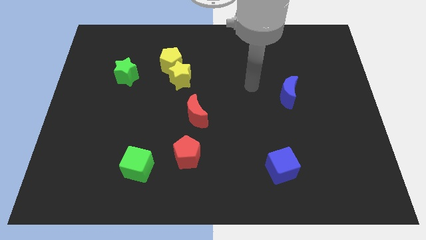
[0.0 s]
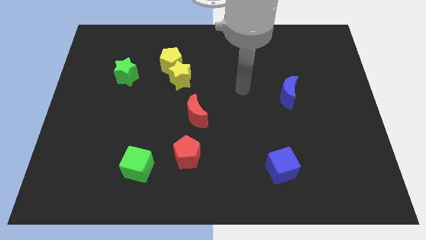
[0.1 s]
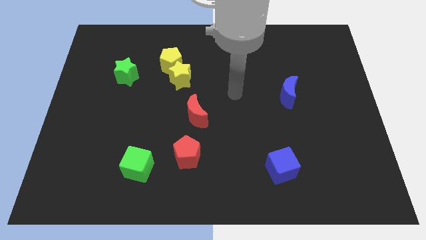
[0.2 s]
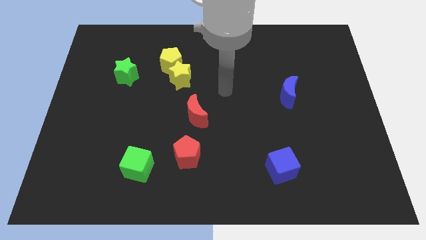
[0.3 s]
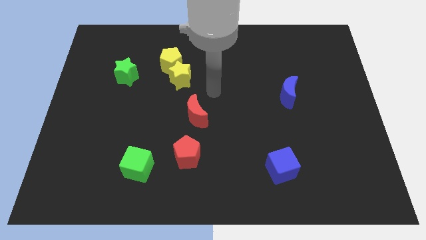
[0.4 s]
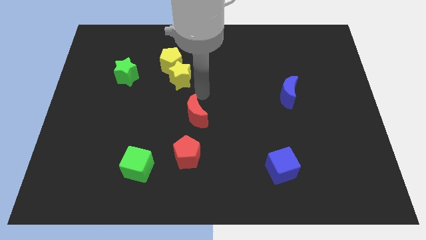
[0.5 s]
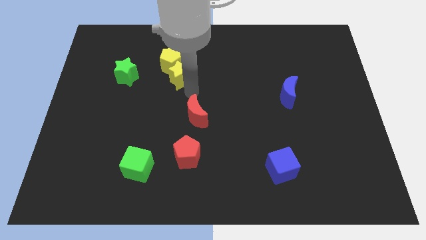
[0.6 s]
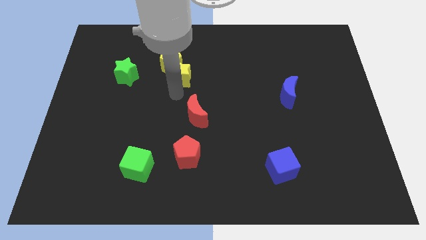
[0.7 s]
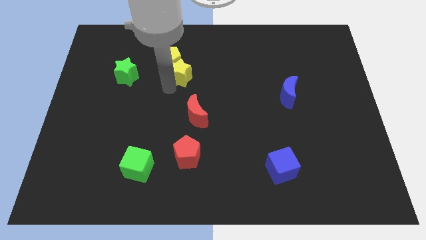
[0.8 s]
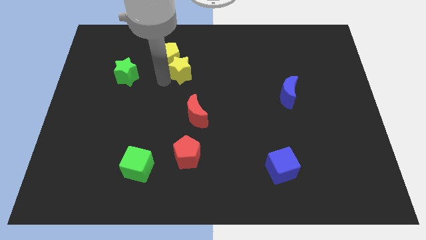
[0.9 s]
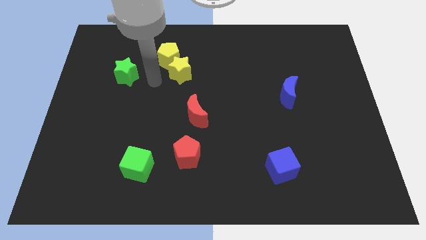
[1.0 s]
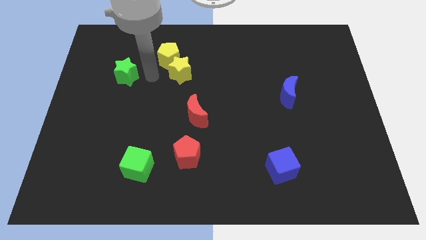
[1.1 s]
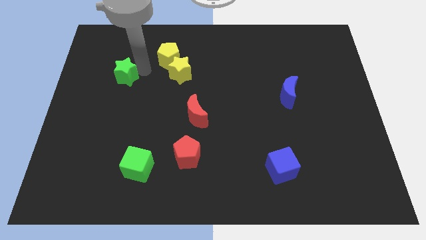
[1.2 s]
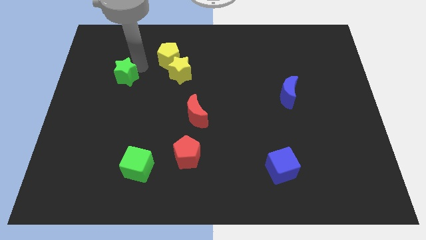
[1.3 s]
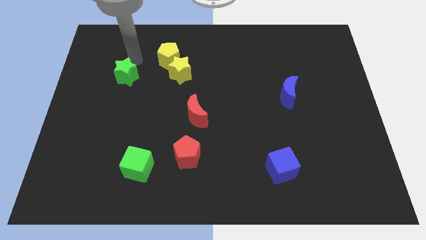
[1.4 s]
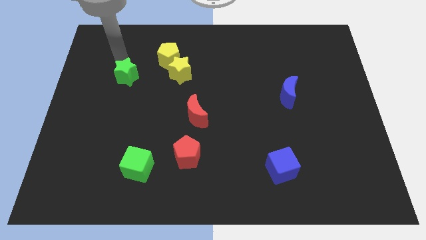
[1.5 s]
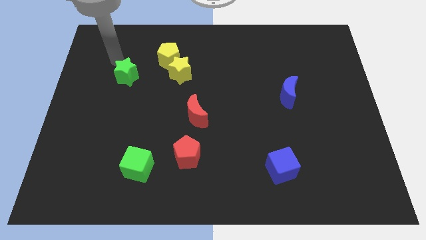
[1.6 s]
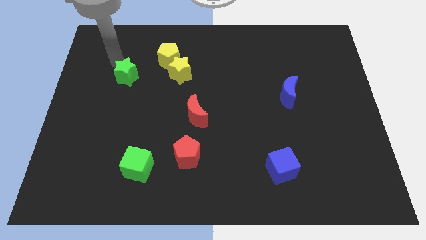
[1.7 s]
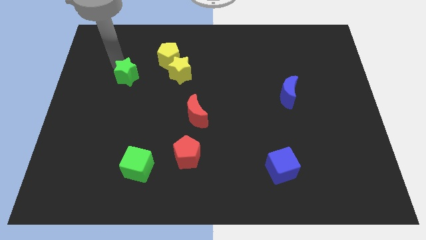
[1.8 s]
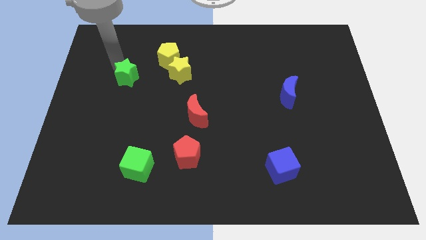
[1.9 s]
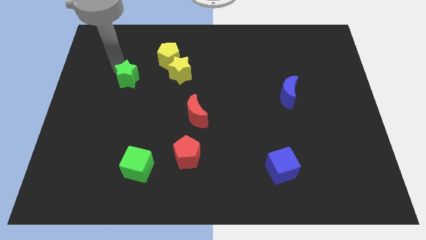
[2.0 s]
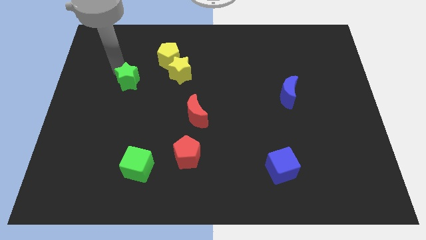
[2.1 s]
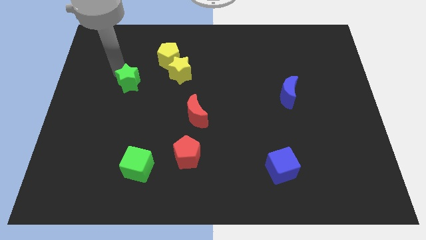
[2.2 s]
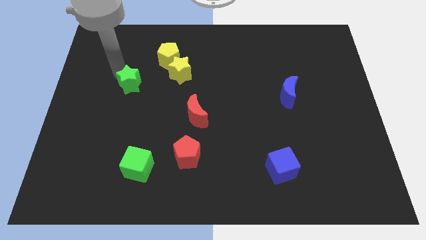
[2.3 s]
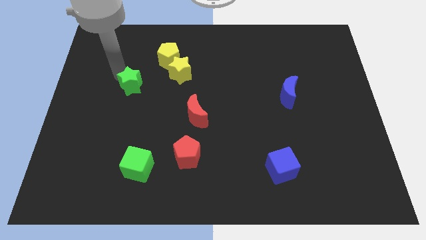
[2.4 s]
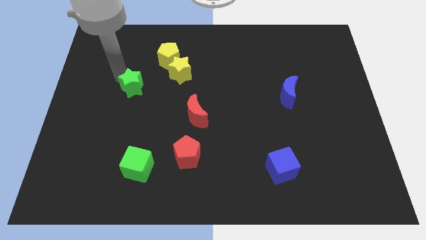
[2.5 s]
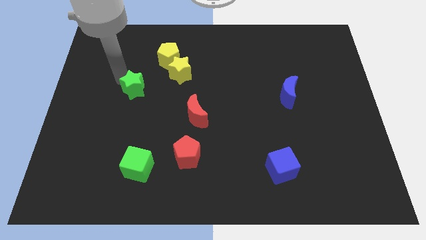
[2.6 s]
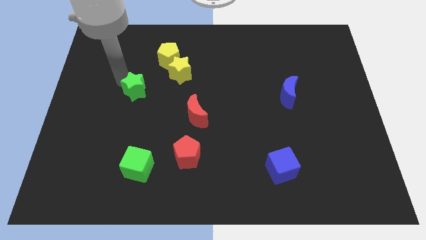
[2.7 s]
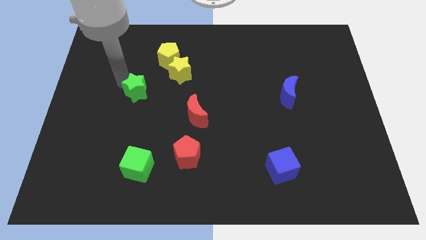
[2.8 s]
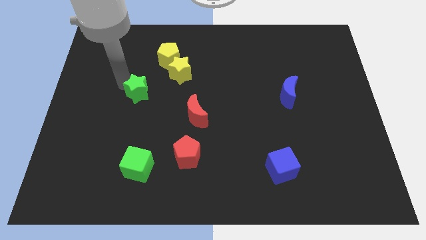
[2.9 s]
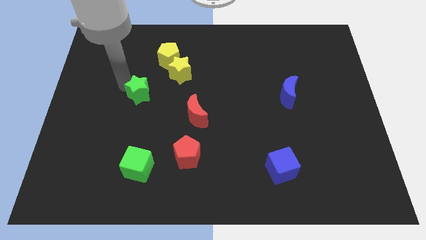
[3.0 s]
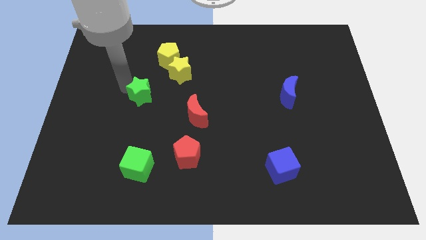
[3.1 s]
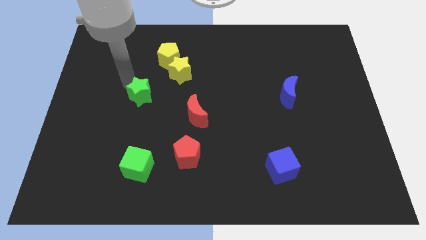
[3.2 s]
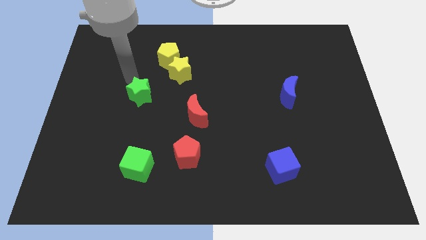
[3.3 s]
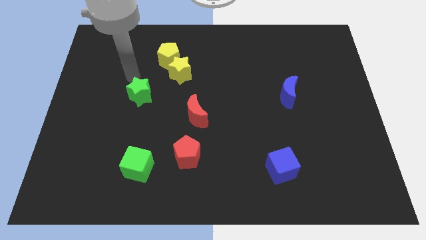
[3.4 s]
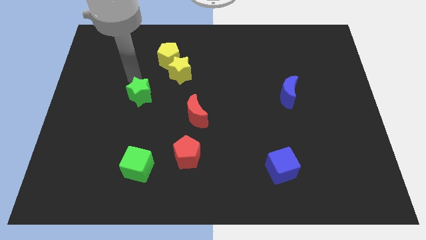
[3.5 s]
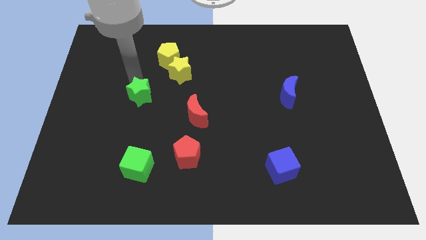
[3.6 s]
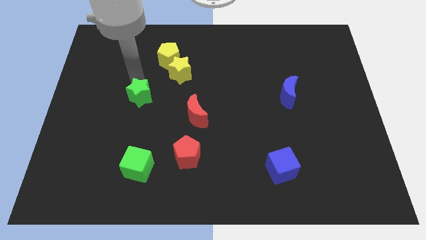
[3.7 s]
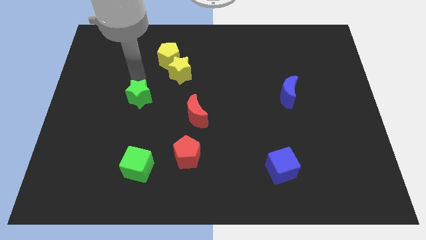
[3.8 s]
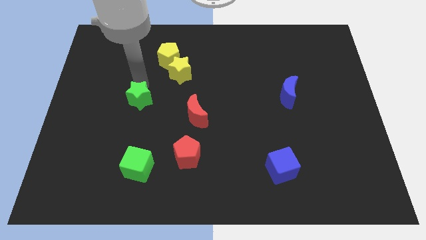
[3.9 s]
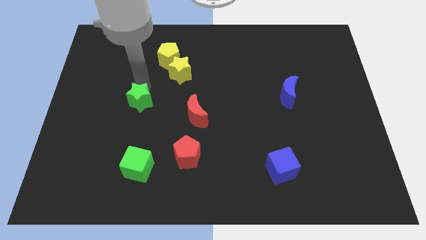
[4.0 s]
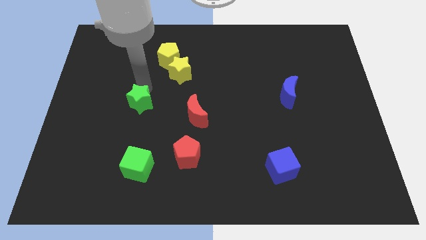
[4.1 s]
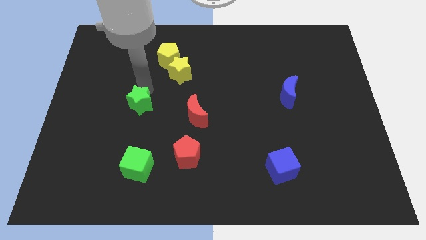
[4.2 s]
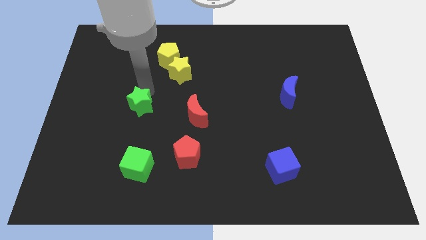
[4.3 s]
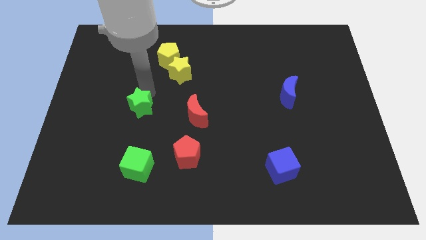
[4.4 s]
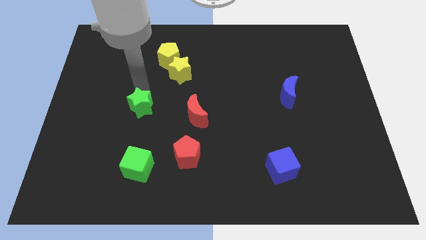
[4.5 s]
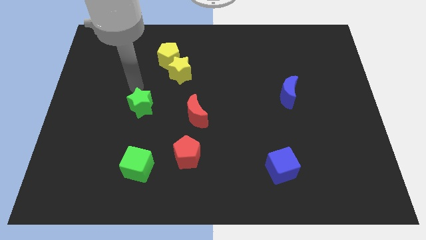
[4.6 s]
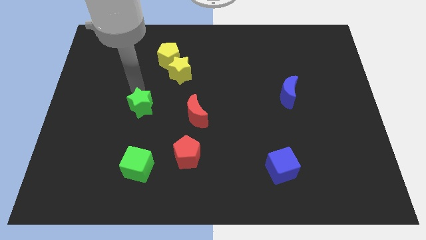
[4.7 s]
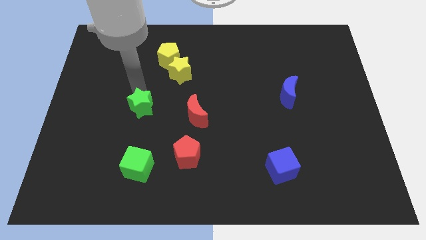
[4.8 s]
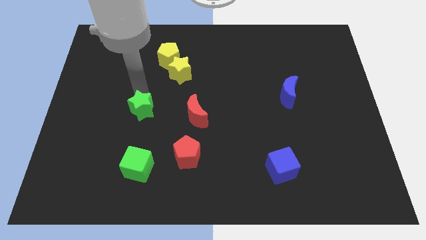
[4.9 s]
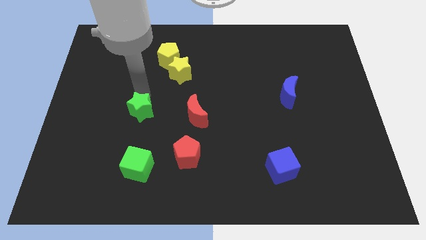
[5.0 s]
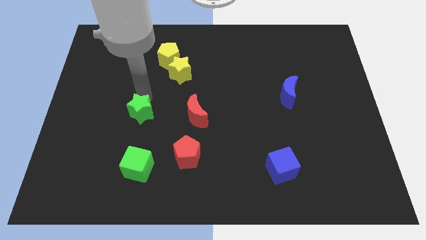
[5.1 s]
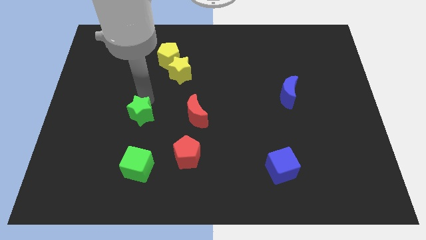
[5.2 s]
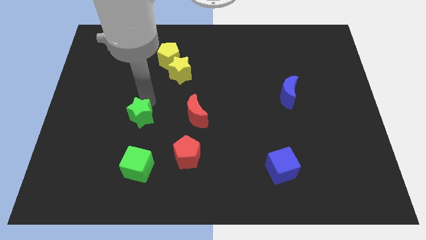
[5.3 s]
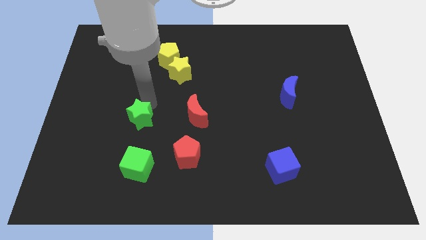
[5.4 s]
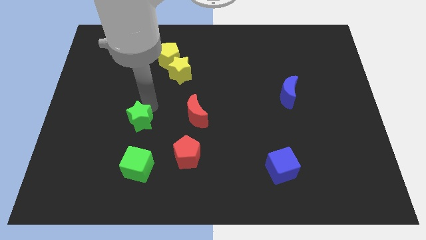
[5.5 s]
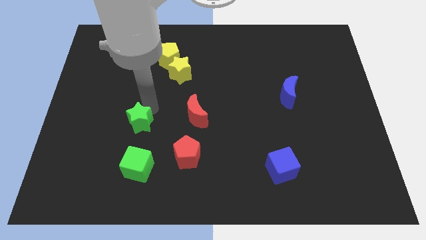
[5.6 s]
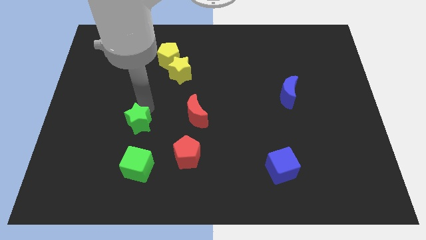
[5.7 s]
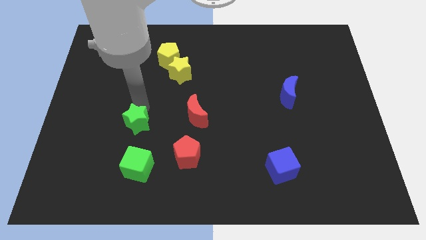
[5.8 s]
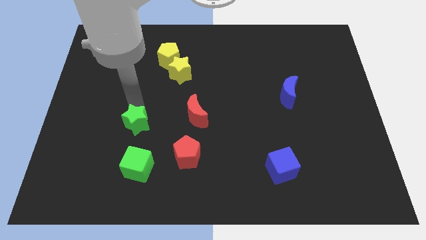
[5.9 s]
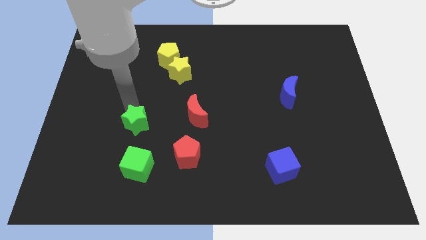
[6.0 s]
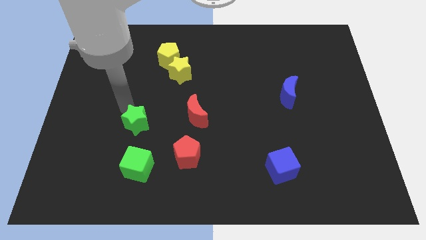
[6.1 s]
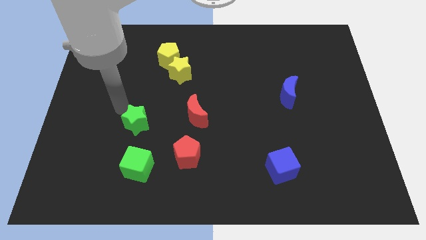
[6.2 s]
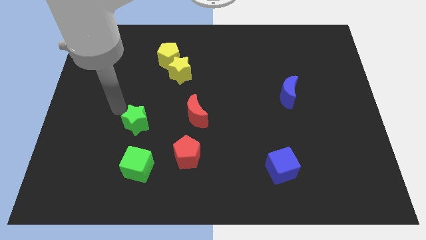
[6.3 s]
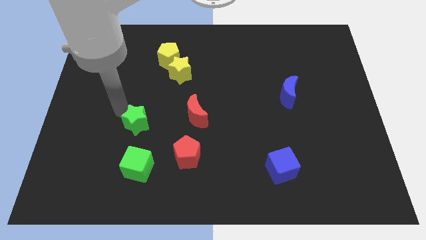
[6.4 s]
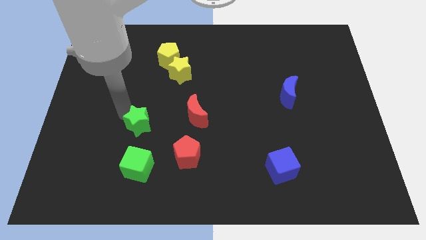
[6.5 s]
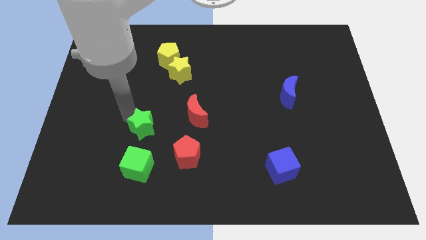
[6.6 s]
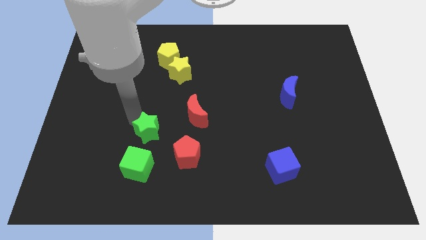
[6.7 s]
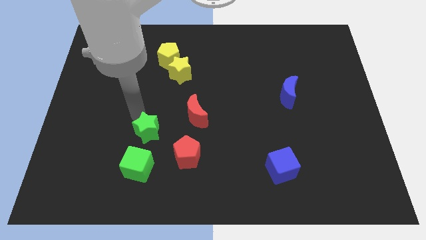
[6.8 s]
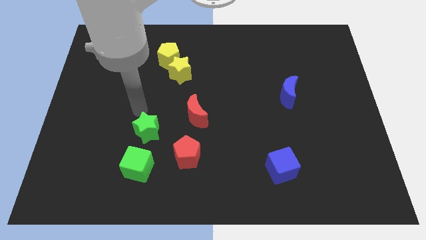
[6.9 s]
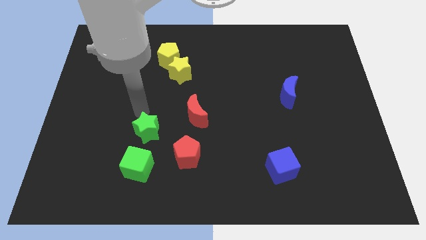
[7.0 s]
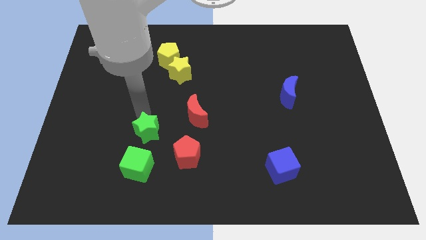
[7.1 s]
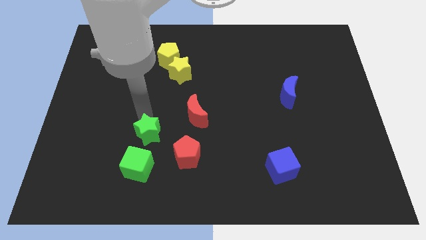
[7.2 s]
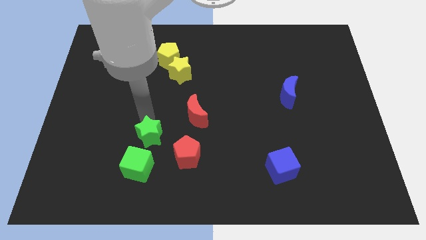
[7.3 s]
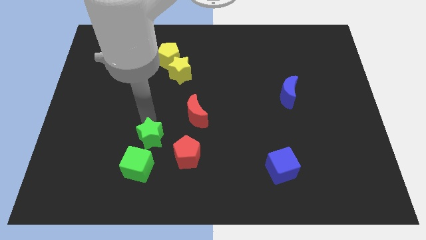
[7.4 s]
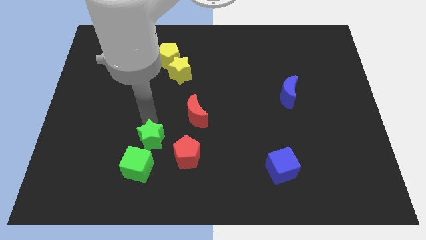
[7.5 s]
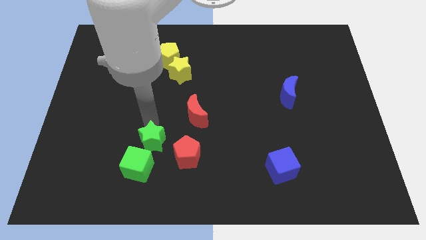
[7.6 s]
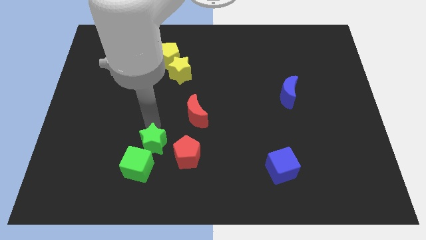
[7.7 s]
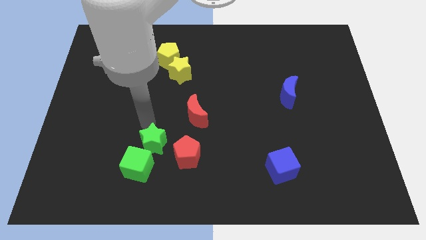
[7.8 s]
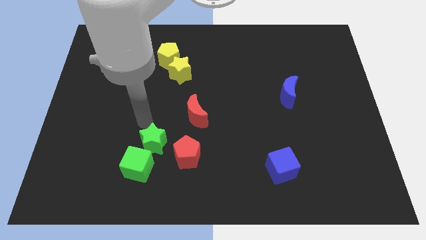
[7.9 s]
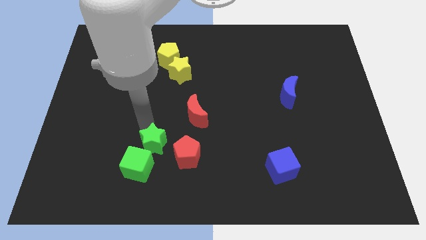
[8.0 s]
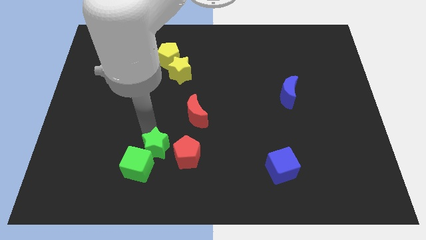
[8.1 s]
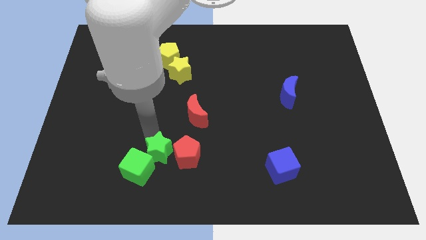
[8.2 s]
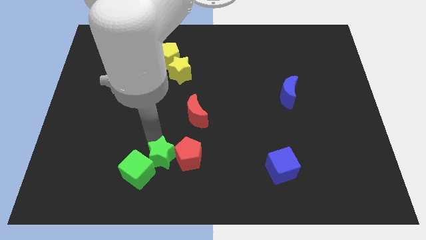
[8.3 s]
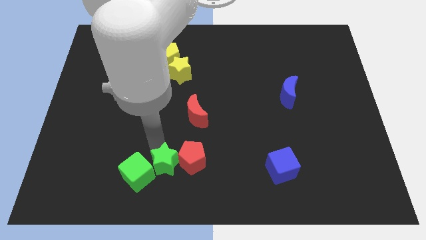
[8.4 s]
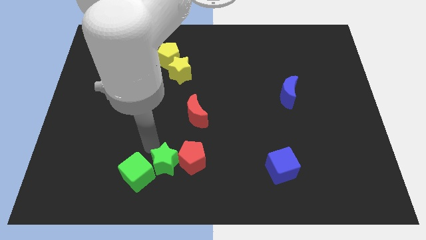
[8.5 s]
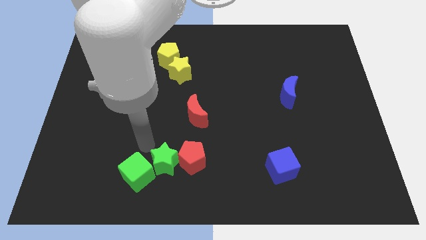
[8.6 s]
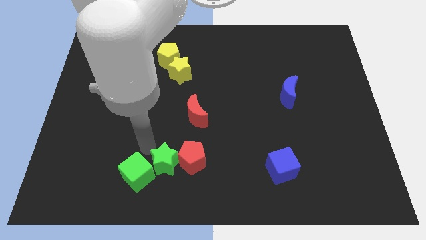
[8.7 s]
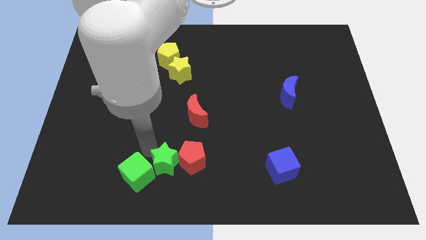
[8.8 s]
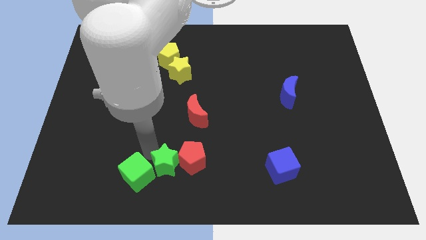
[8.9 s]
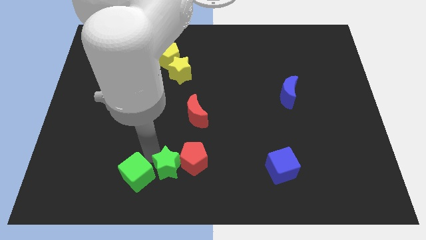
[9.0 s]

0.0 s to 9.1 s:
put the green star to the bottom
